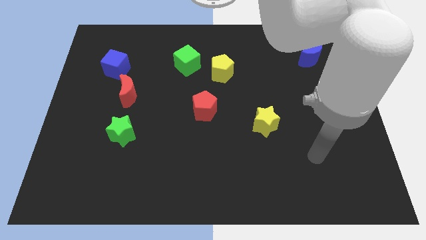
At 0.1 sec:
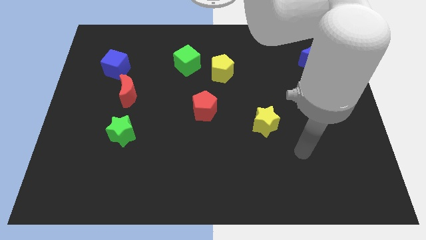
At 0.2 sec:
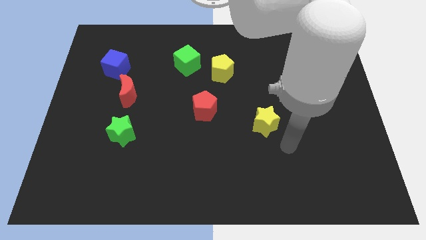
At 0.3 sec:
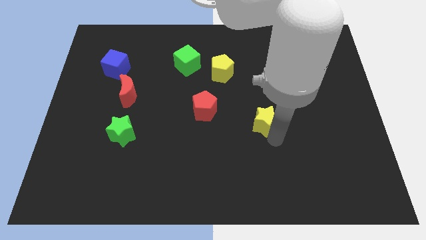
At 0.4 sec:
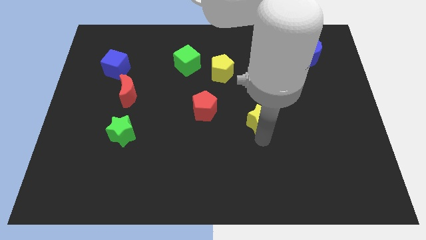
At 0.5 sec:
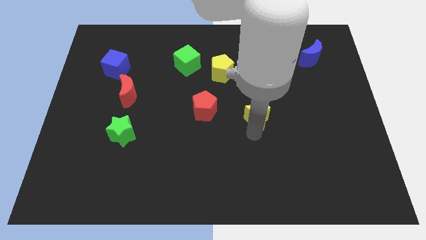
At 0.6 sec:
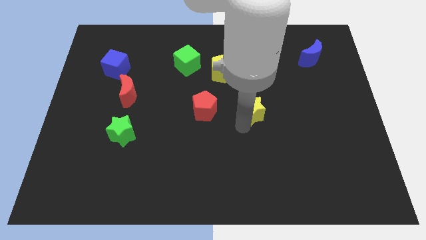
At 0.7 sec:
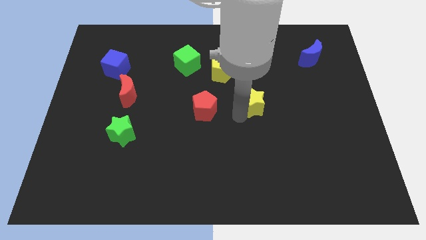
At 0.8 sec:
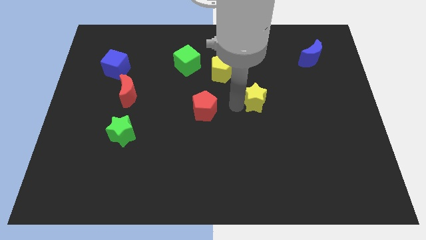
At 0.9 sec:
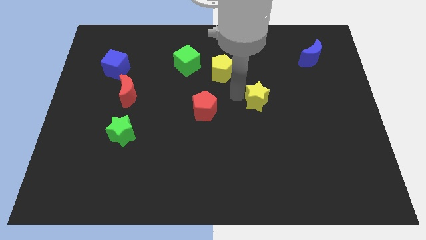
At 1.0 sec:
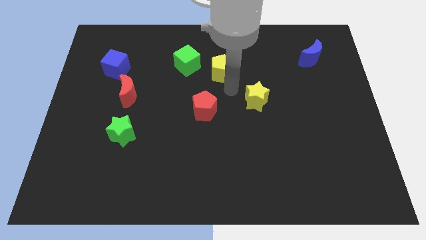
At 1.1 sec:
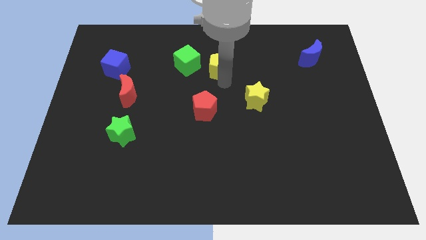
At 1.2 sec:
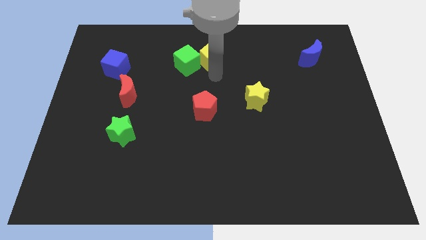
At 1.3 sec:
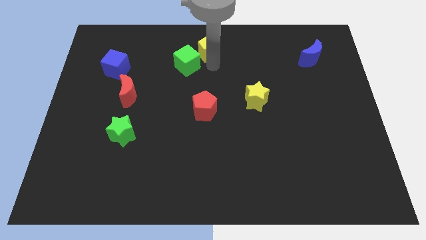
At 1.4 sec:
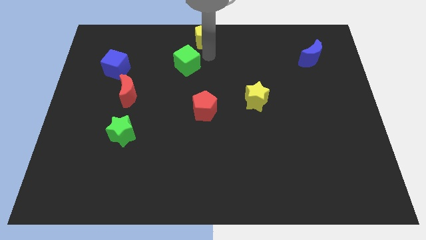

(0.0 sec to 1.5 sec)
separate the green cube from the yellow pentagon

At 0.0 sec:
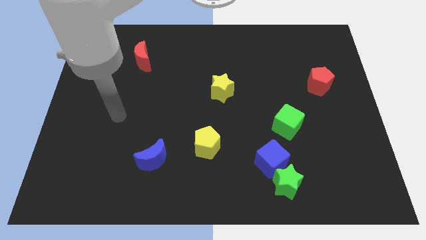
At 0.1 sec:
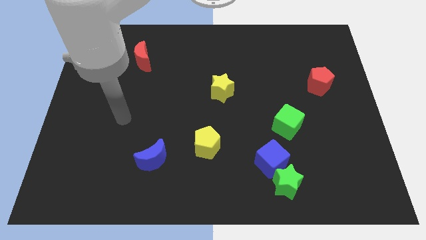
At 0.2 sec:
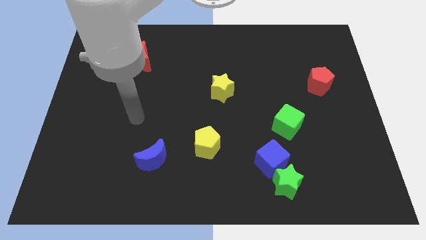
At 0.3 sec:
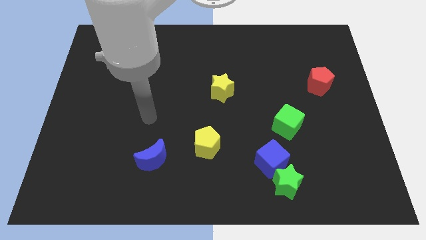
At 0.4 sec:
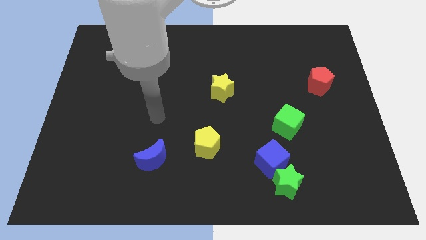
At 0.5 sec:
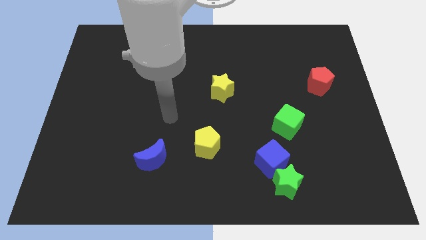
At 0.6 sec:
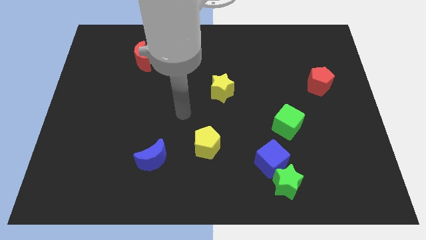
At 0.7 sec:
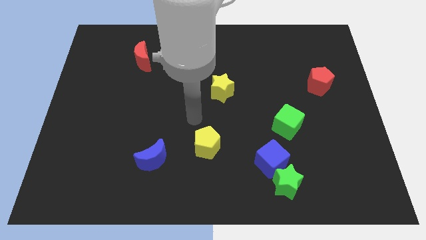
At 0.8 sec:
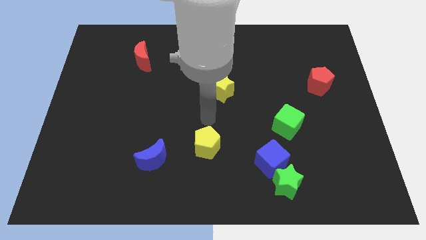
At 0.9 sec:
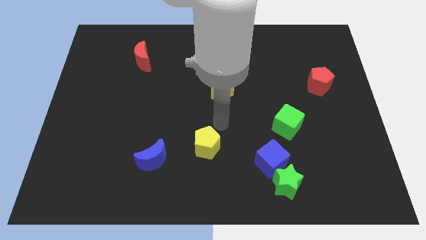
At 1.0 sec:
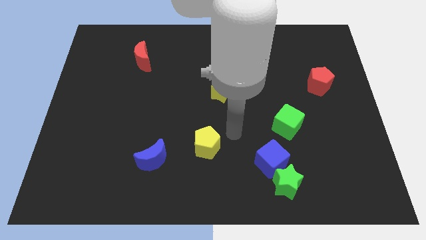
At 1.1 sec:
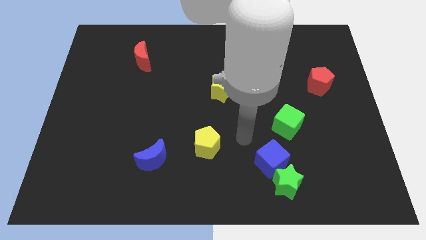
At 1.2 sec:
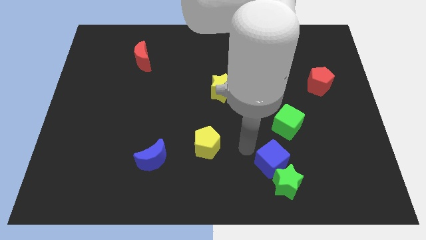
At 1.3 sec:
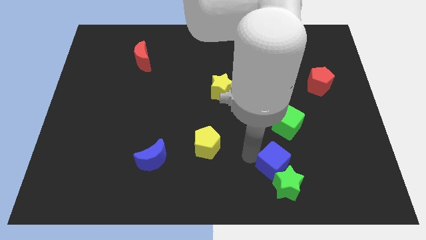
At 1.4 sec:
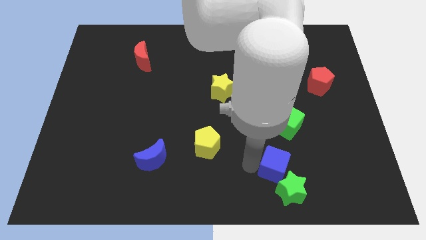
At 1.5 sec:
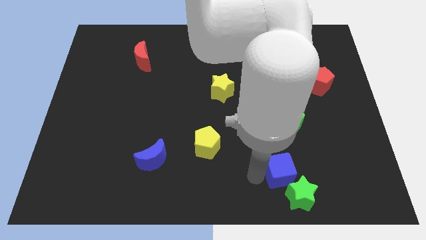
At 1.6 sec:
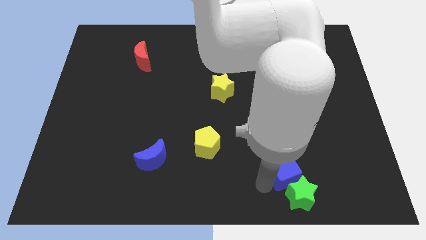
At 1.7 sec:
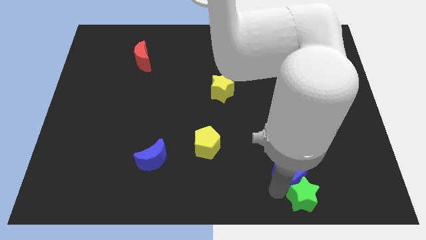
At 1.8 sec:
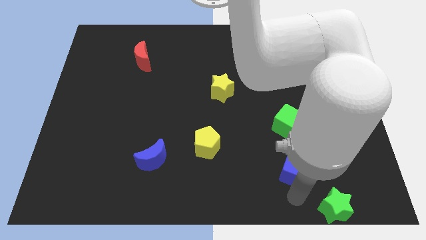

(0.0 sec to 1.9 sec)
move the blue cube away from the green star

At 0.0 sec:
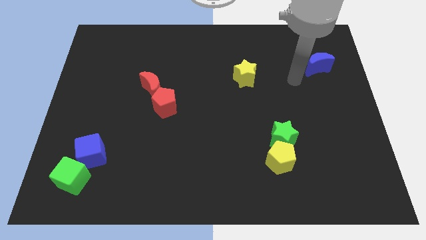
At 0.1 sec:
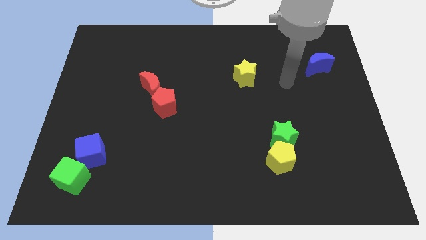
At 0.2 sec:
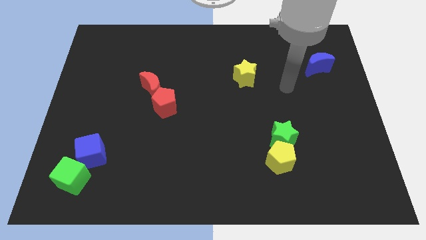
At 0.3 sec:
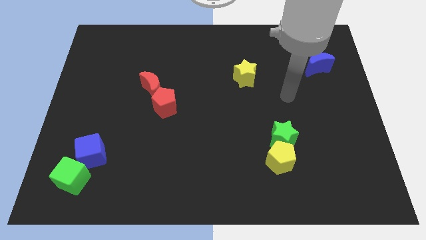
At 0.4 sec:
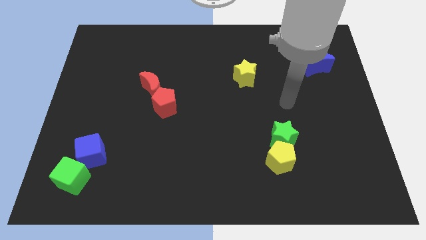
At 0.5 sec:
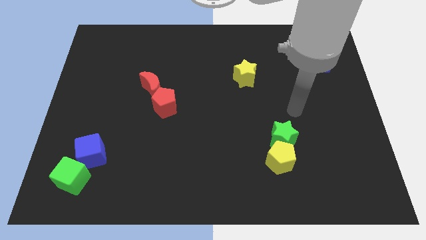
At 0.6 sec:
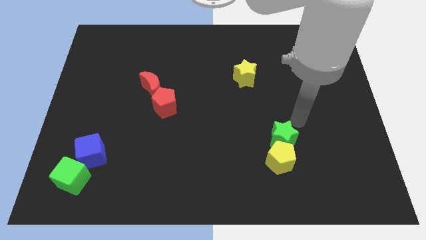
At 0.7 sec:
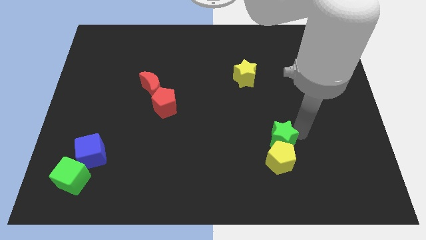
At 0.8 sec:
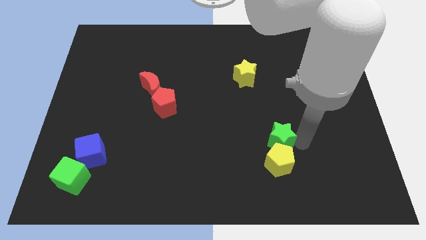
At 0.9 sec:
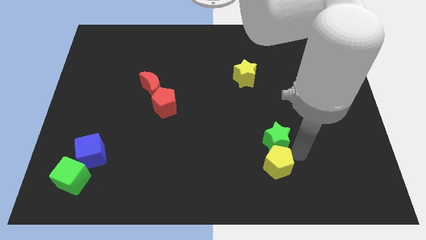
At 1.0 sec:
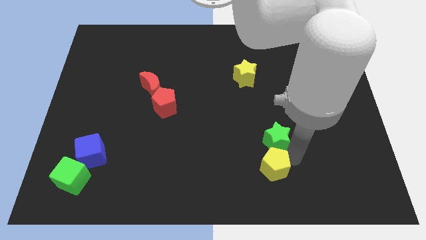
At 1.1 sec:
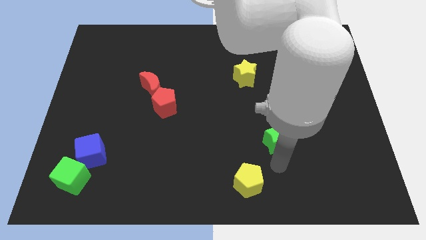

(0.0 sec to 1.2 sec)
move the green star away from the yellow pentagon

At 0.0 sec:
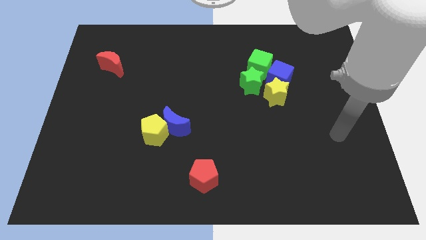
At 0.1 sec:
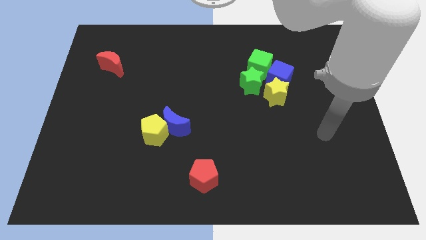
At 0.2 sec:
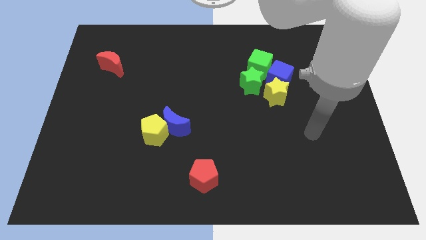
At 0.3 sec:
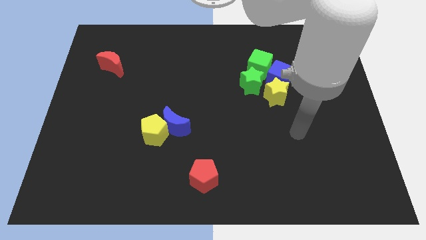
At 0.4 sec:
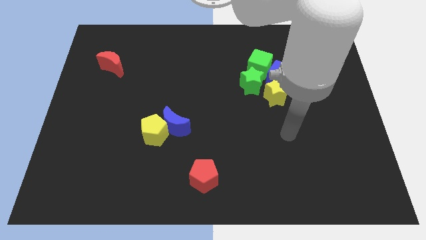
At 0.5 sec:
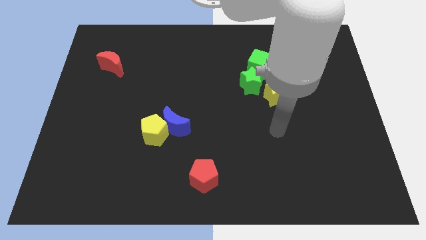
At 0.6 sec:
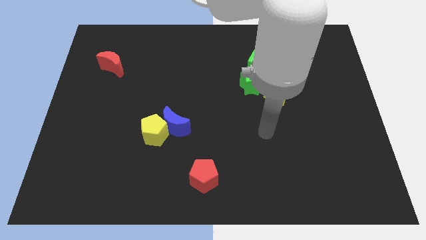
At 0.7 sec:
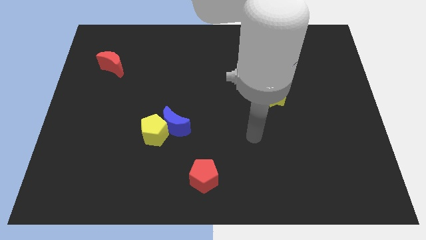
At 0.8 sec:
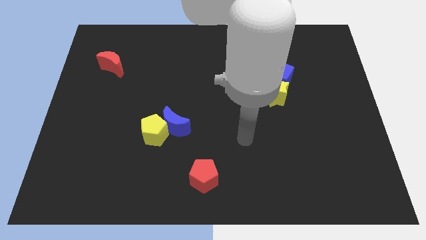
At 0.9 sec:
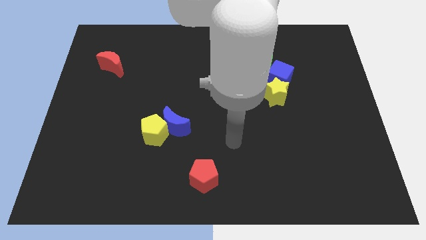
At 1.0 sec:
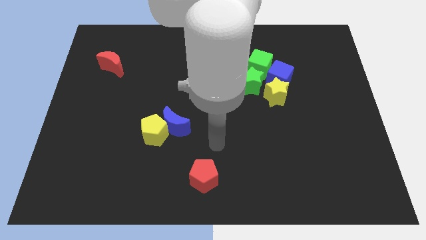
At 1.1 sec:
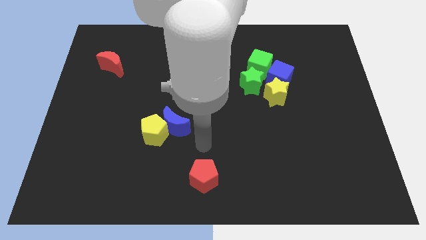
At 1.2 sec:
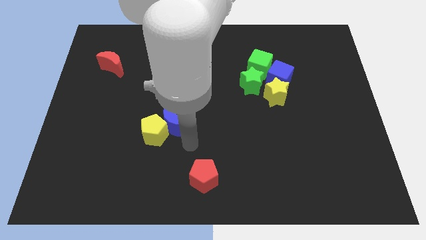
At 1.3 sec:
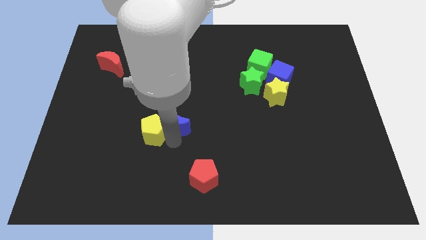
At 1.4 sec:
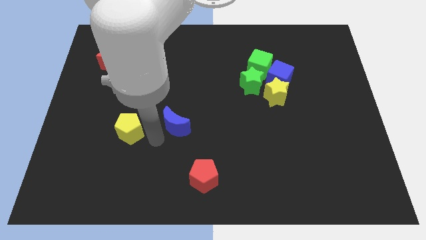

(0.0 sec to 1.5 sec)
pull the blue moon apart from the yellow pentagon

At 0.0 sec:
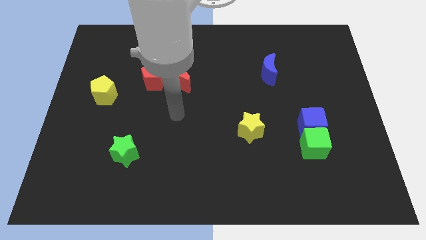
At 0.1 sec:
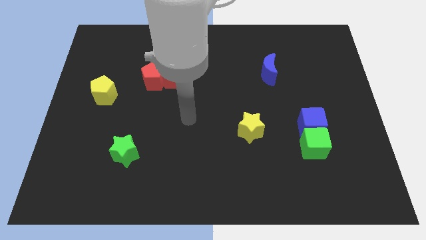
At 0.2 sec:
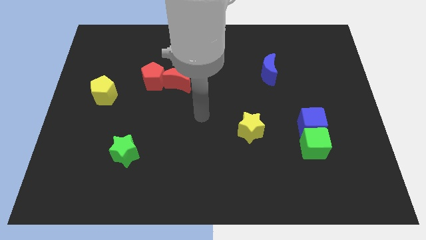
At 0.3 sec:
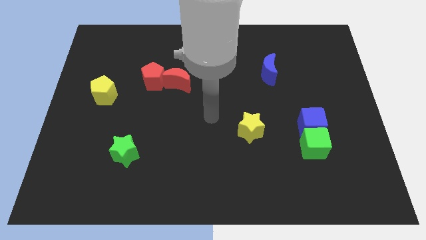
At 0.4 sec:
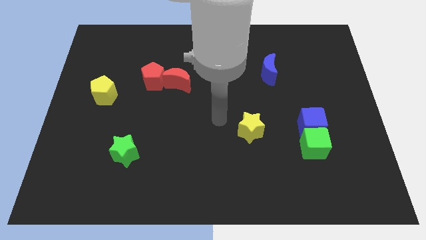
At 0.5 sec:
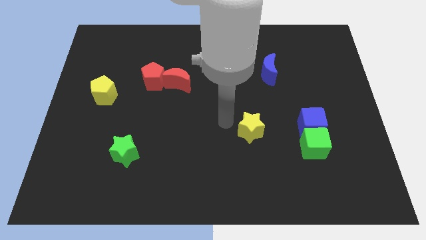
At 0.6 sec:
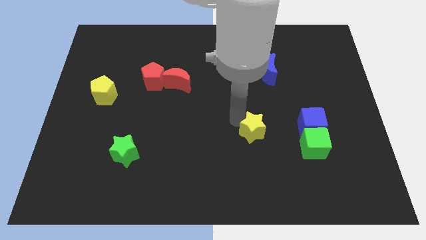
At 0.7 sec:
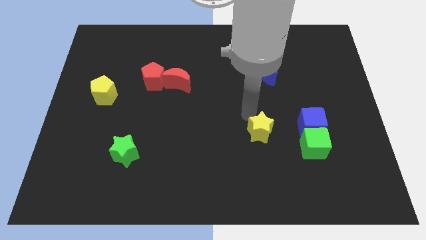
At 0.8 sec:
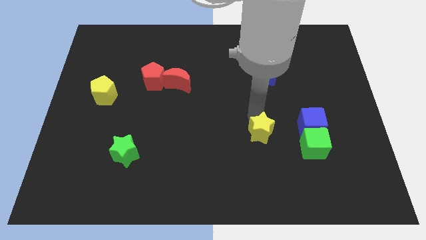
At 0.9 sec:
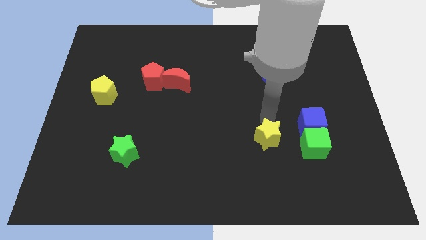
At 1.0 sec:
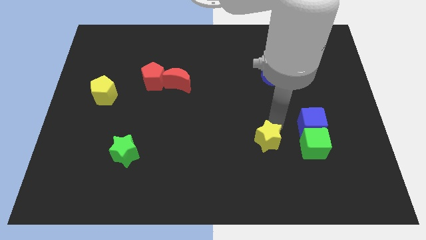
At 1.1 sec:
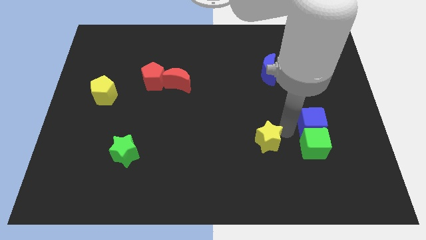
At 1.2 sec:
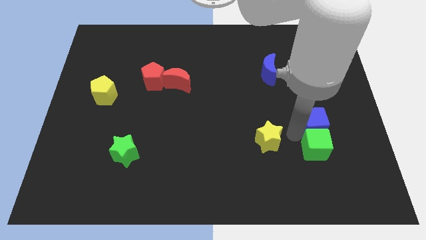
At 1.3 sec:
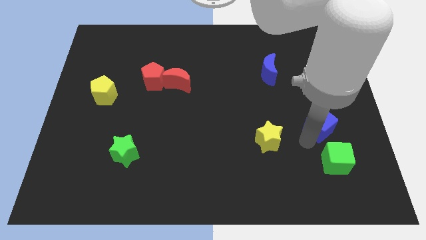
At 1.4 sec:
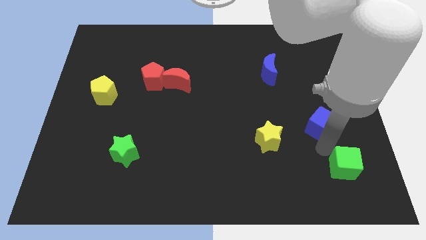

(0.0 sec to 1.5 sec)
separate the blue cube from the green cube

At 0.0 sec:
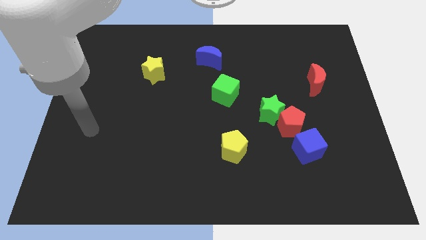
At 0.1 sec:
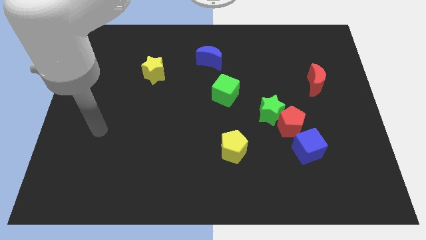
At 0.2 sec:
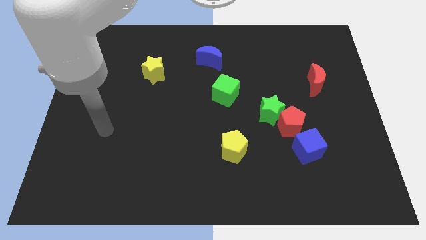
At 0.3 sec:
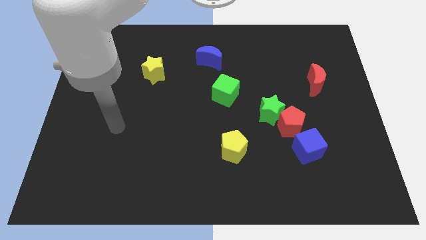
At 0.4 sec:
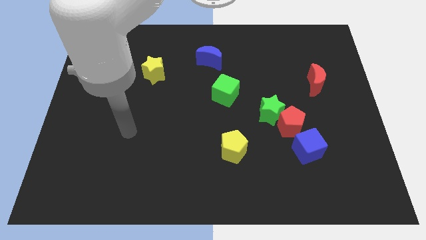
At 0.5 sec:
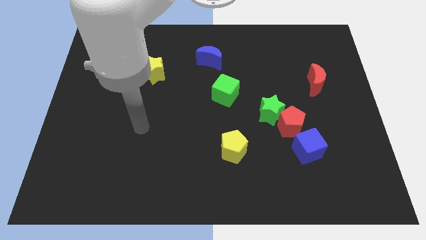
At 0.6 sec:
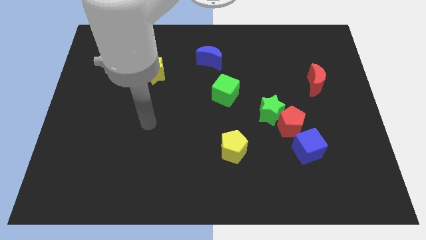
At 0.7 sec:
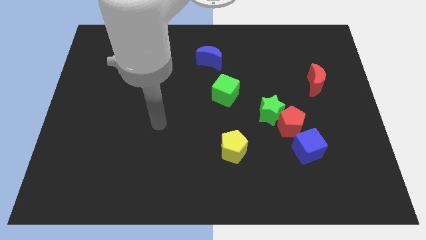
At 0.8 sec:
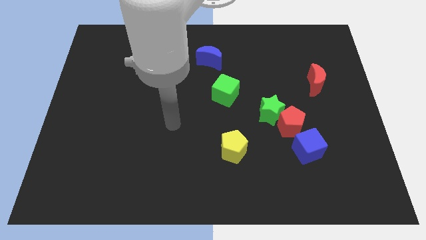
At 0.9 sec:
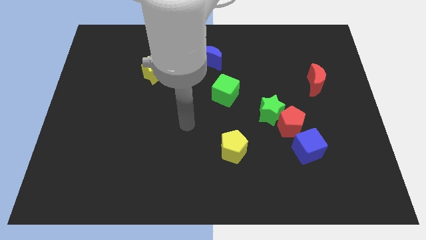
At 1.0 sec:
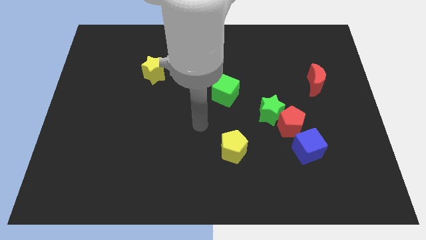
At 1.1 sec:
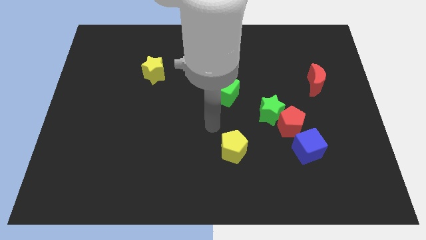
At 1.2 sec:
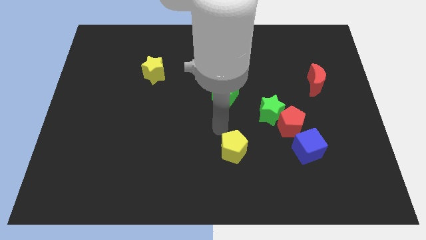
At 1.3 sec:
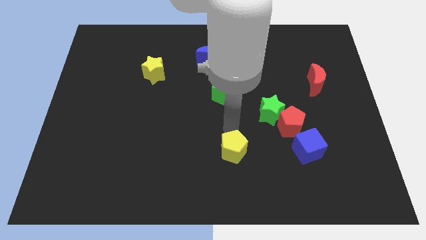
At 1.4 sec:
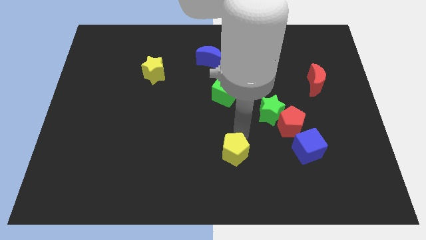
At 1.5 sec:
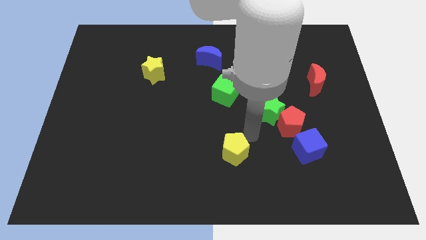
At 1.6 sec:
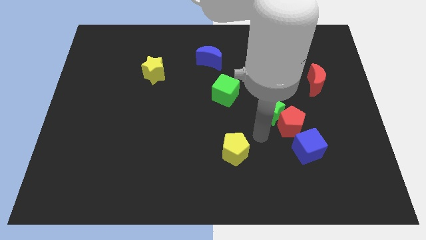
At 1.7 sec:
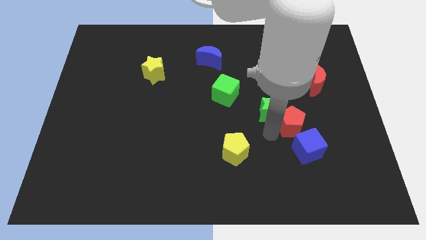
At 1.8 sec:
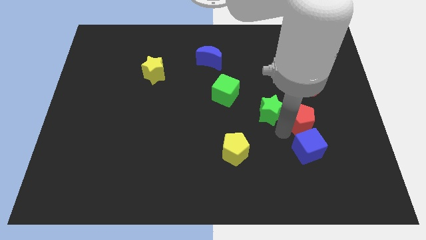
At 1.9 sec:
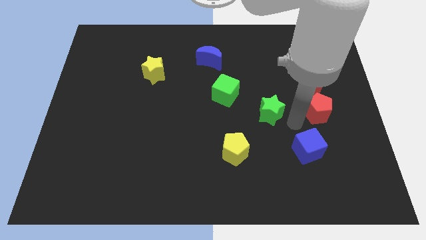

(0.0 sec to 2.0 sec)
move the green star away from the red pentagon
